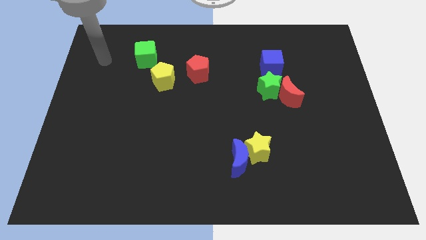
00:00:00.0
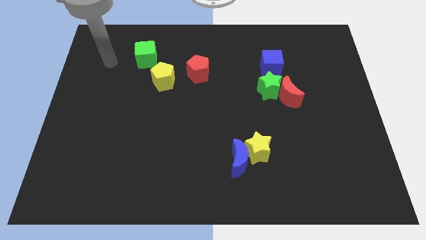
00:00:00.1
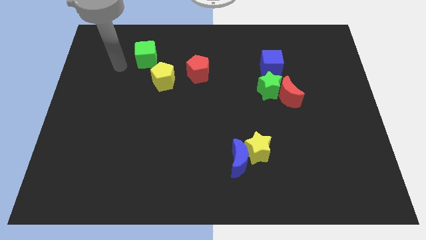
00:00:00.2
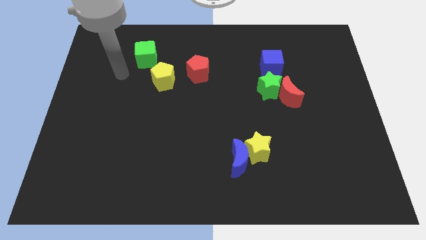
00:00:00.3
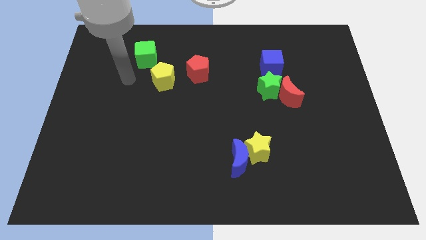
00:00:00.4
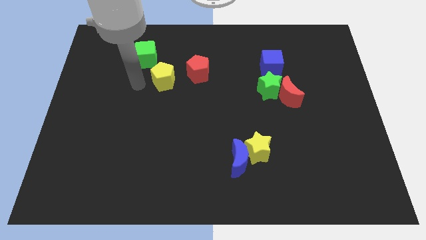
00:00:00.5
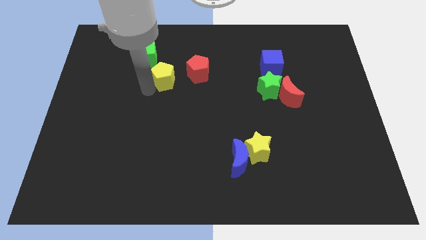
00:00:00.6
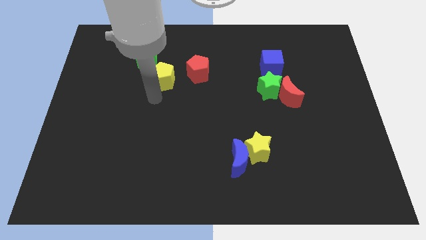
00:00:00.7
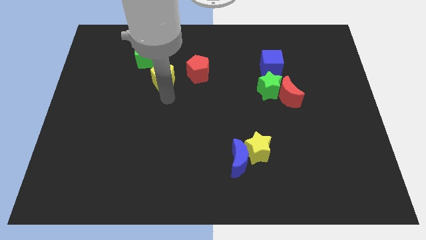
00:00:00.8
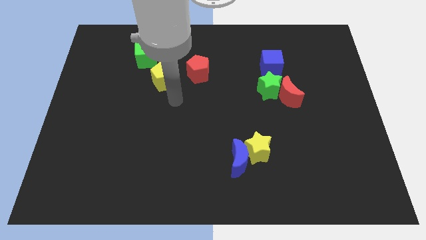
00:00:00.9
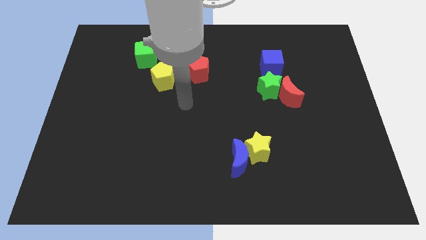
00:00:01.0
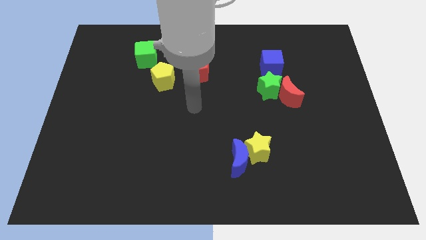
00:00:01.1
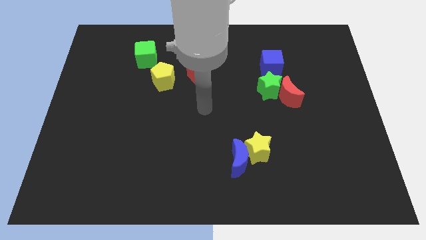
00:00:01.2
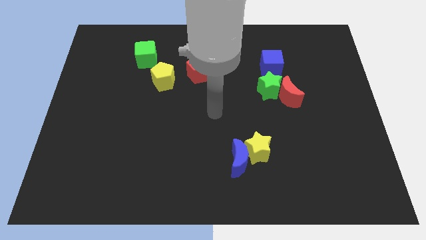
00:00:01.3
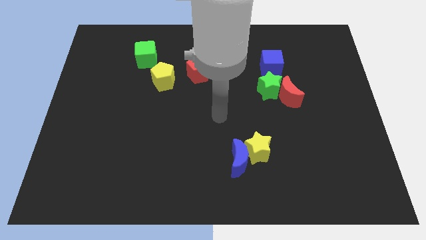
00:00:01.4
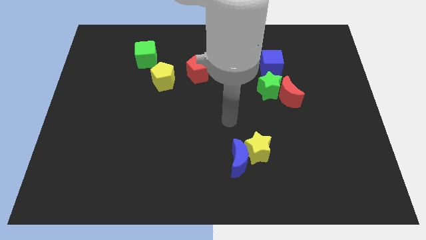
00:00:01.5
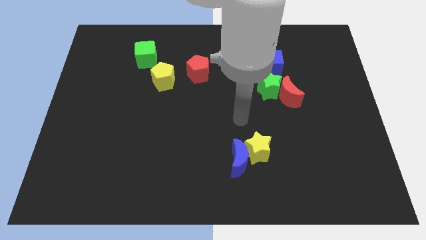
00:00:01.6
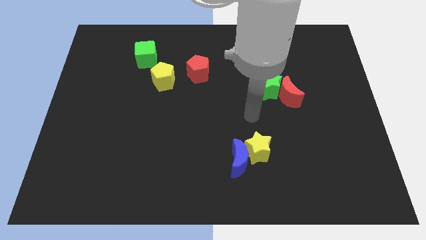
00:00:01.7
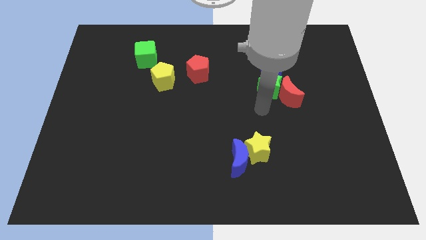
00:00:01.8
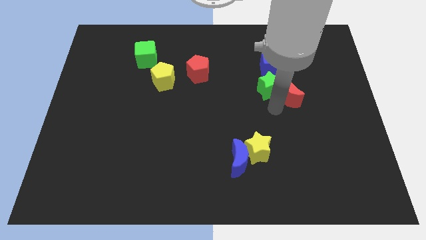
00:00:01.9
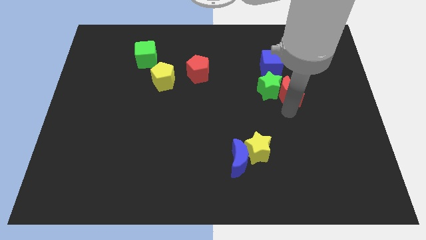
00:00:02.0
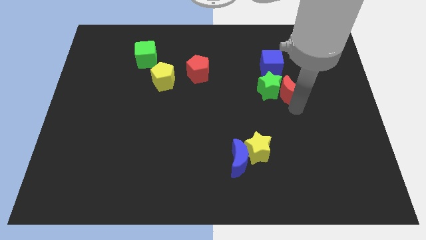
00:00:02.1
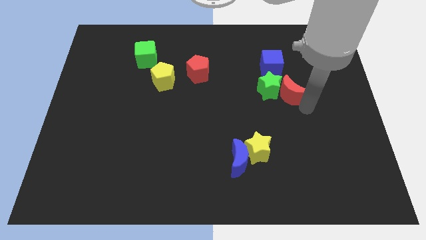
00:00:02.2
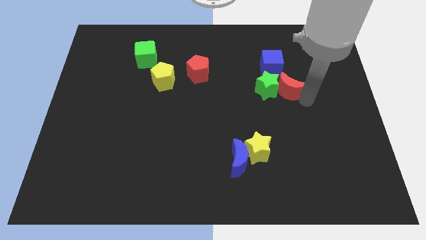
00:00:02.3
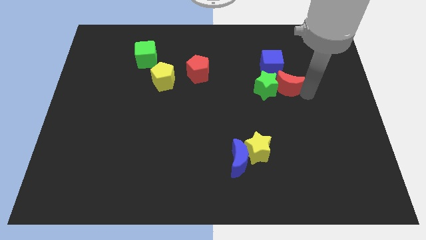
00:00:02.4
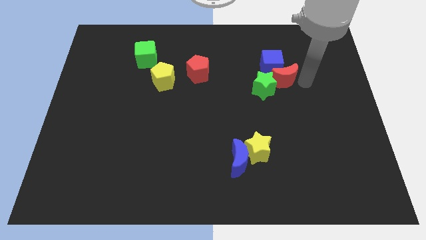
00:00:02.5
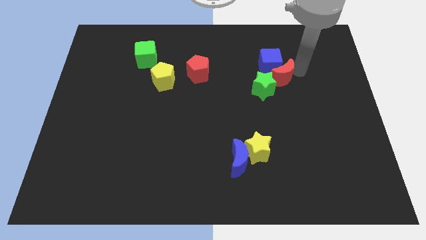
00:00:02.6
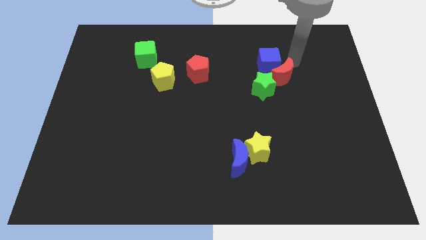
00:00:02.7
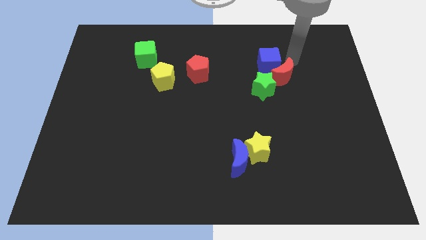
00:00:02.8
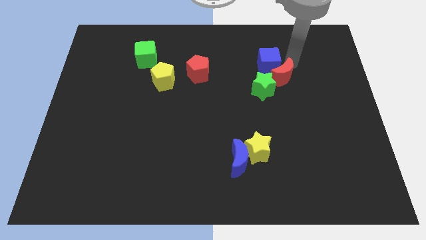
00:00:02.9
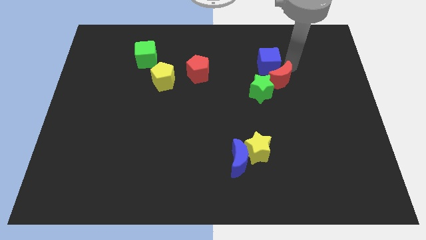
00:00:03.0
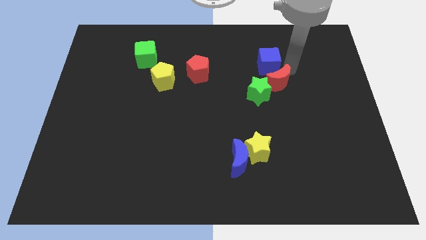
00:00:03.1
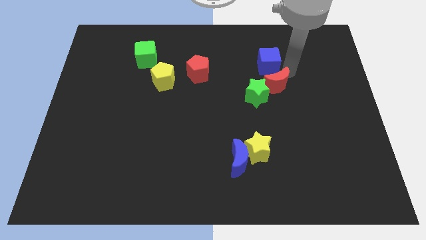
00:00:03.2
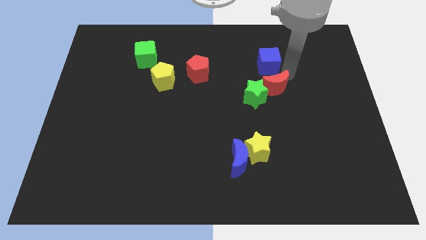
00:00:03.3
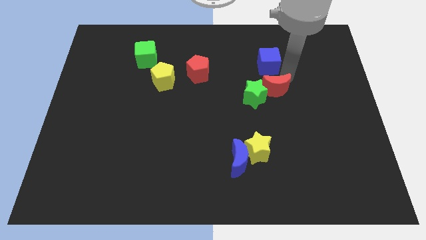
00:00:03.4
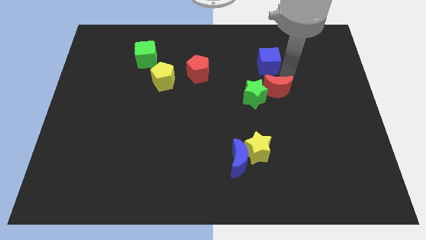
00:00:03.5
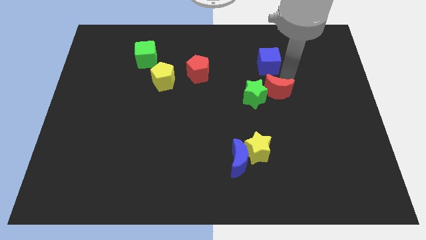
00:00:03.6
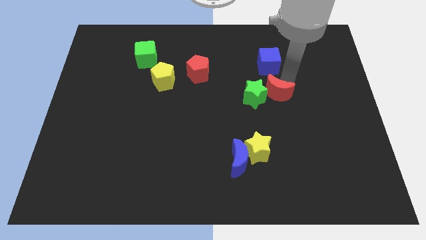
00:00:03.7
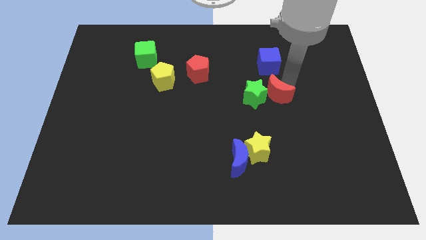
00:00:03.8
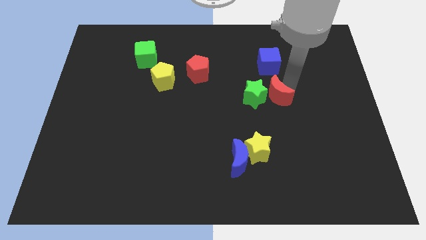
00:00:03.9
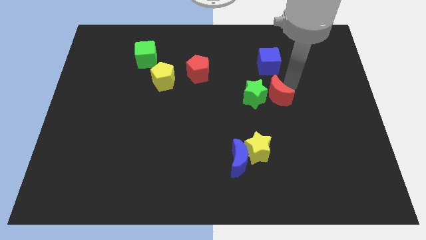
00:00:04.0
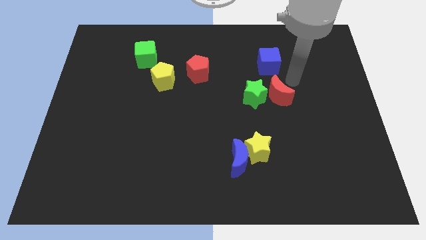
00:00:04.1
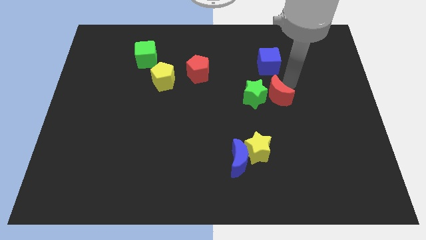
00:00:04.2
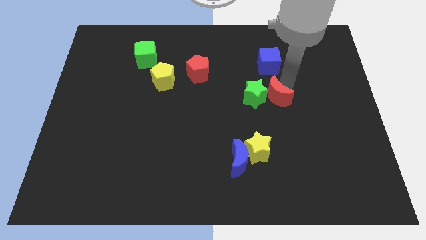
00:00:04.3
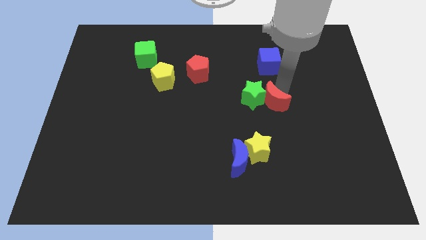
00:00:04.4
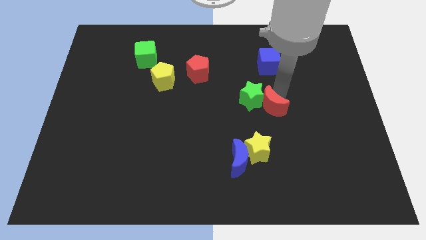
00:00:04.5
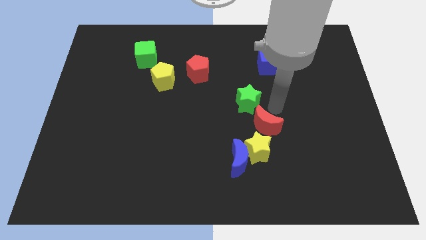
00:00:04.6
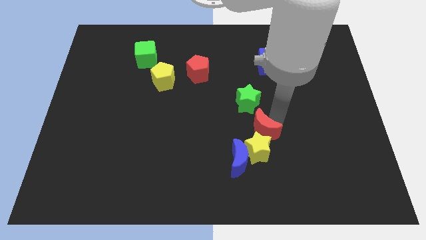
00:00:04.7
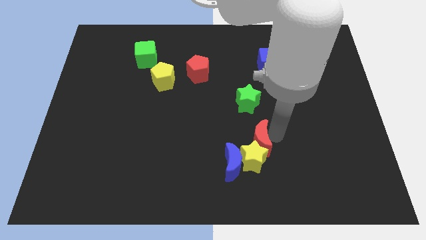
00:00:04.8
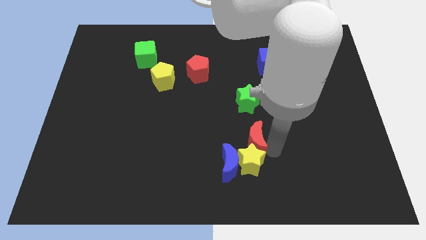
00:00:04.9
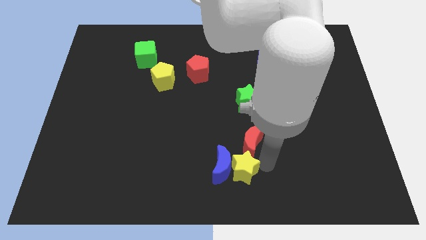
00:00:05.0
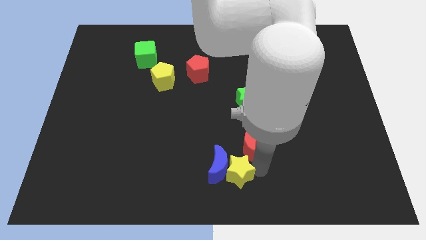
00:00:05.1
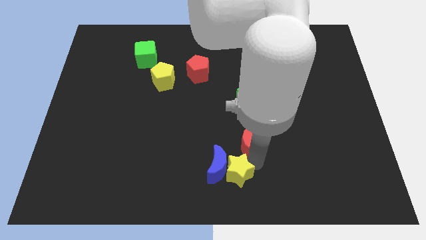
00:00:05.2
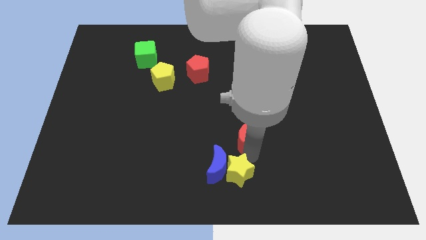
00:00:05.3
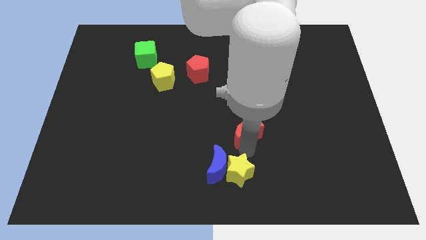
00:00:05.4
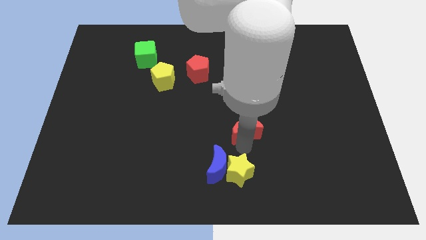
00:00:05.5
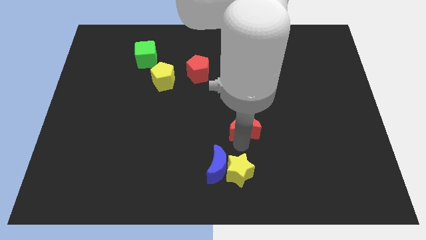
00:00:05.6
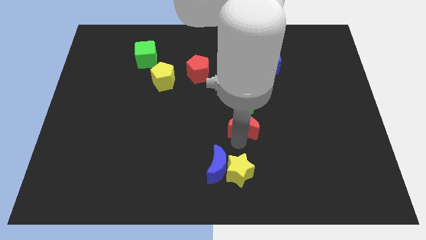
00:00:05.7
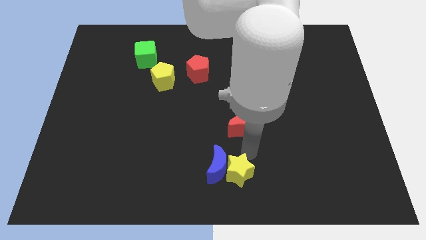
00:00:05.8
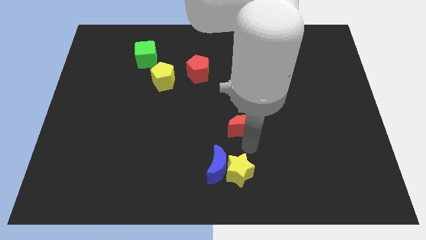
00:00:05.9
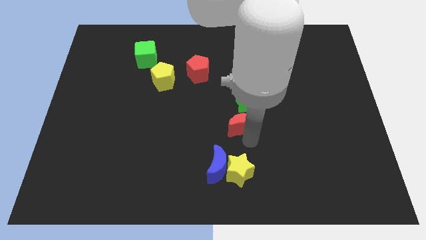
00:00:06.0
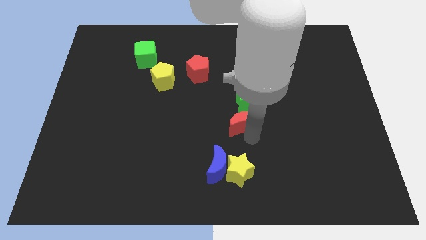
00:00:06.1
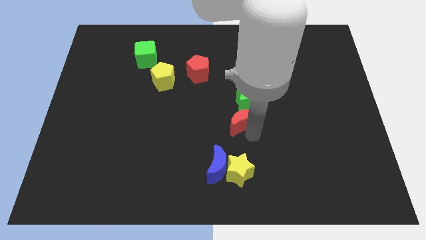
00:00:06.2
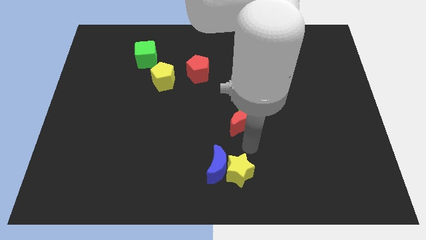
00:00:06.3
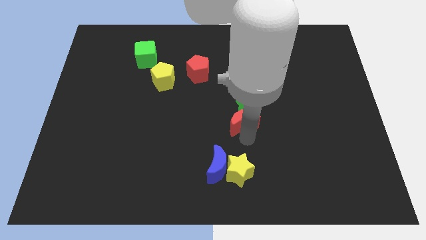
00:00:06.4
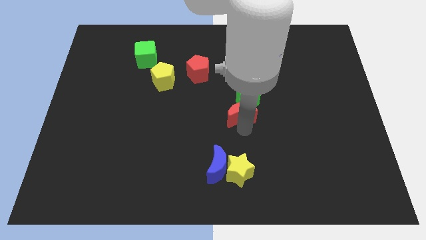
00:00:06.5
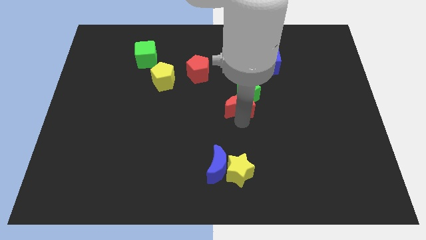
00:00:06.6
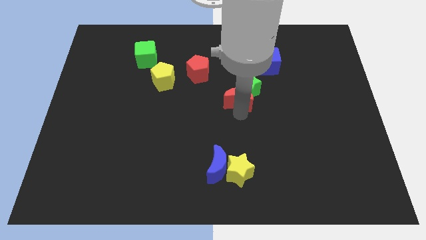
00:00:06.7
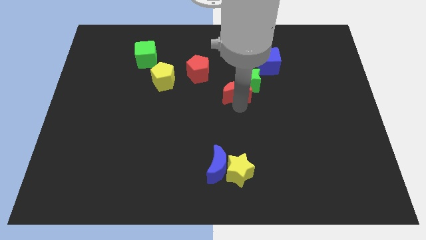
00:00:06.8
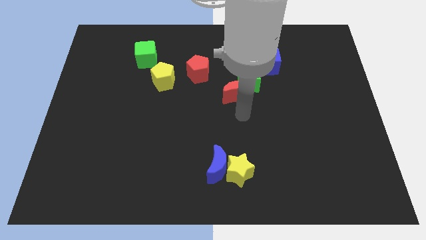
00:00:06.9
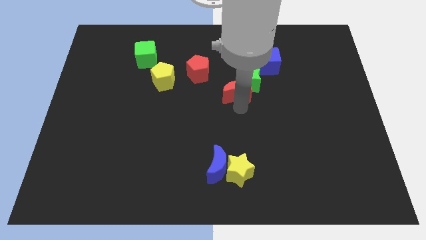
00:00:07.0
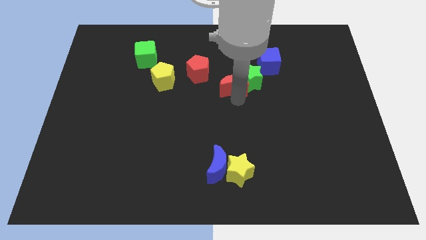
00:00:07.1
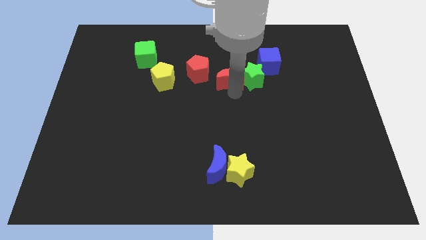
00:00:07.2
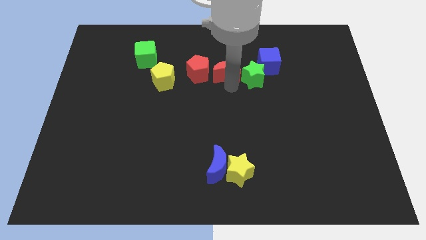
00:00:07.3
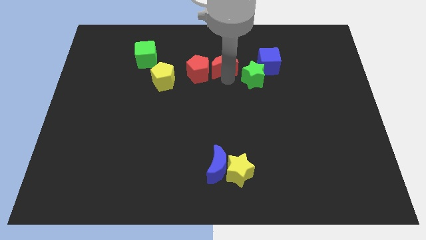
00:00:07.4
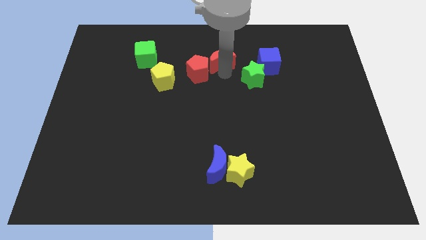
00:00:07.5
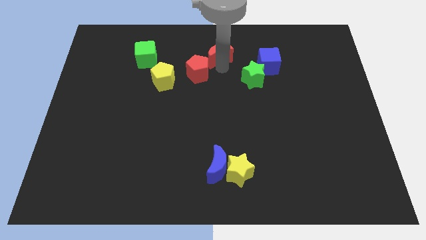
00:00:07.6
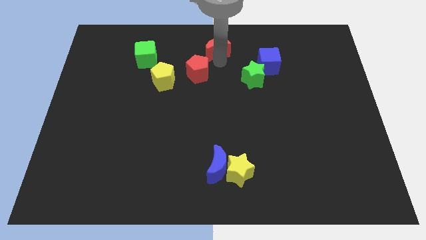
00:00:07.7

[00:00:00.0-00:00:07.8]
push the red moon to the top side

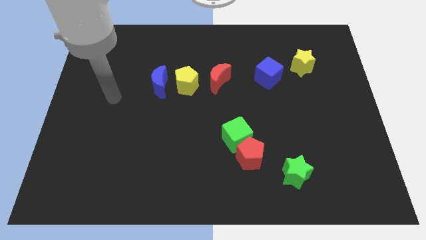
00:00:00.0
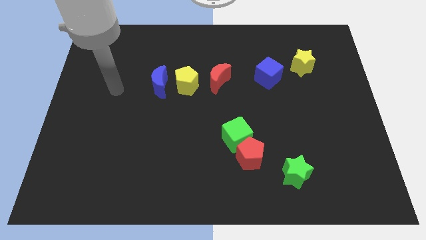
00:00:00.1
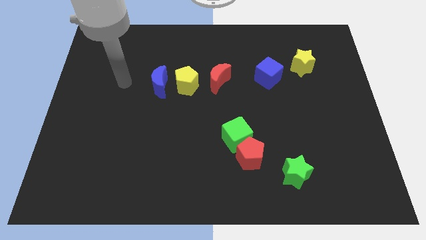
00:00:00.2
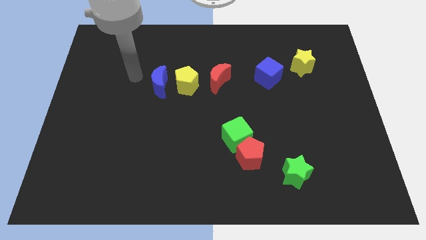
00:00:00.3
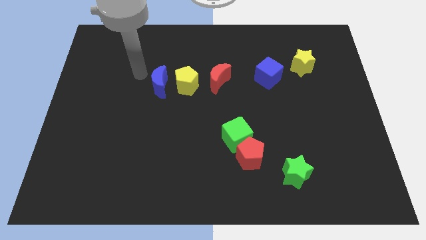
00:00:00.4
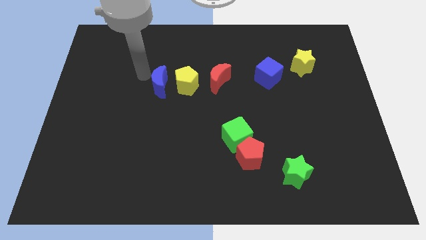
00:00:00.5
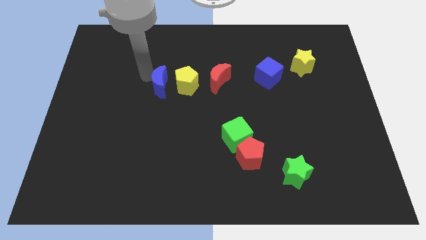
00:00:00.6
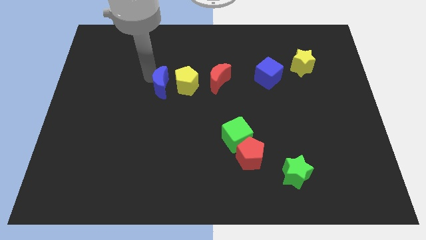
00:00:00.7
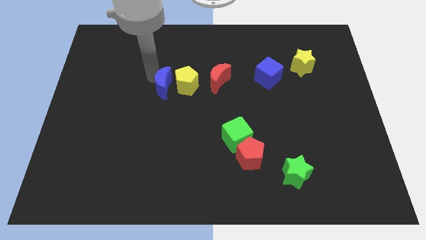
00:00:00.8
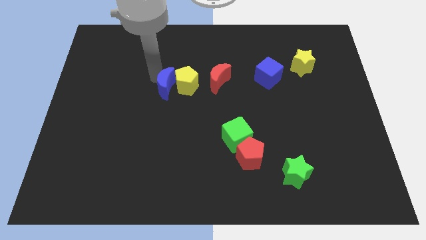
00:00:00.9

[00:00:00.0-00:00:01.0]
push the blue moon to the middle of the board
